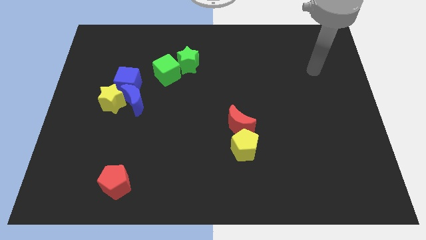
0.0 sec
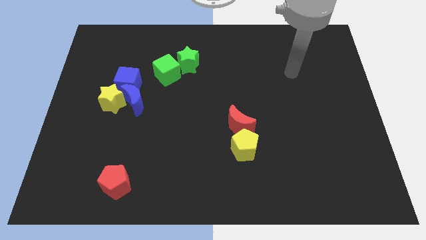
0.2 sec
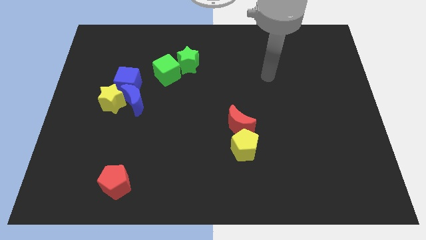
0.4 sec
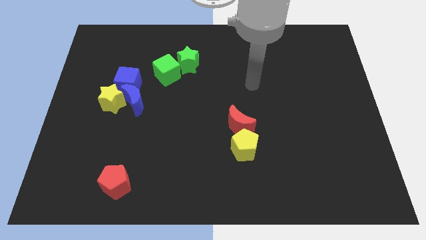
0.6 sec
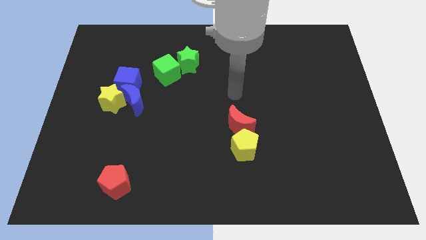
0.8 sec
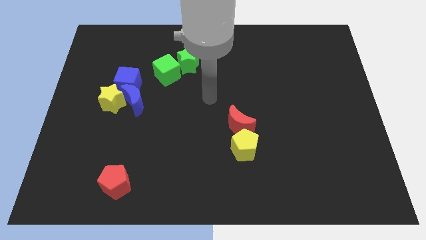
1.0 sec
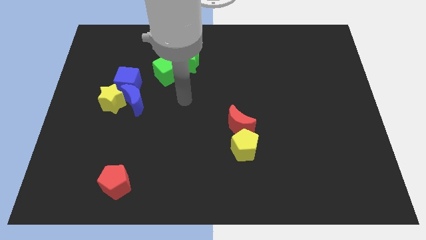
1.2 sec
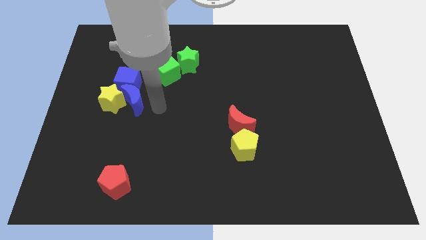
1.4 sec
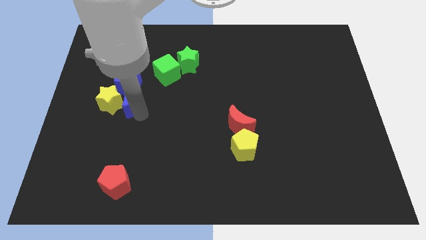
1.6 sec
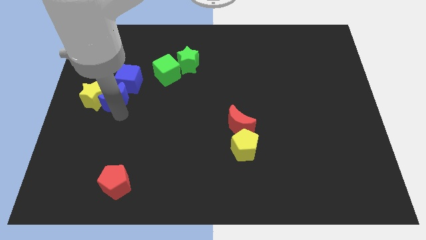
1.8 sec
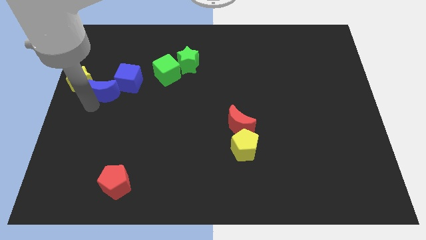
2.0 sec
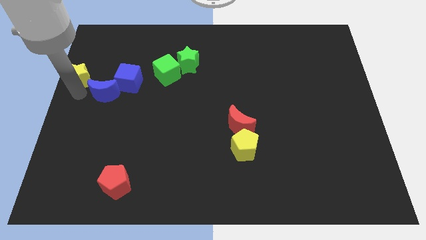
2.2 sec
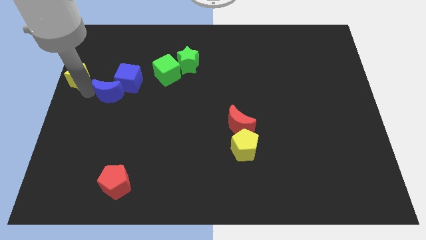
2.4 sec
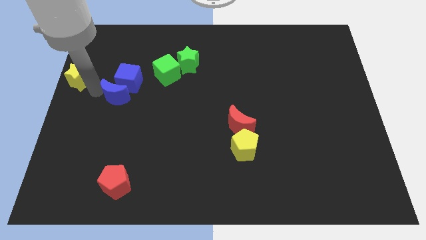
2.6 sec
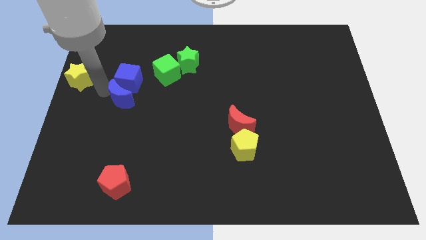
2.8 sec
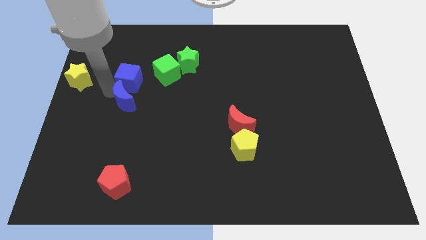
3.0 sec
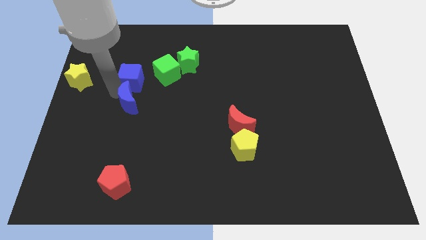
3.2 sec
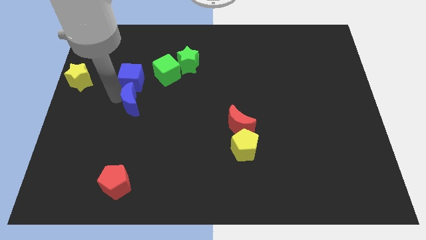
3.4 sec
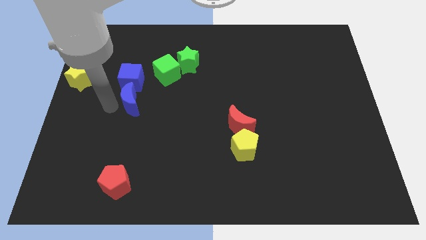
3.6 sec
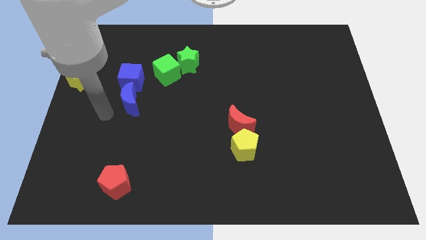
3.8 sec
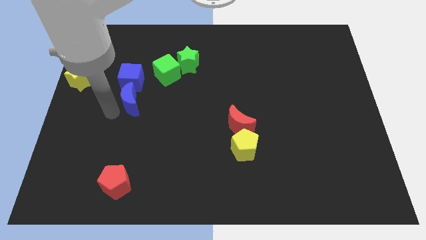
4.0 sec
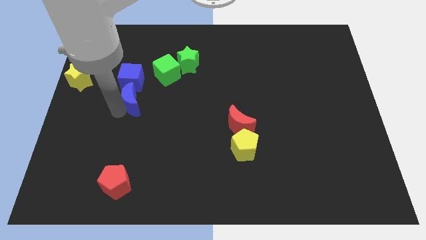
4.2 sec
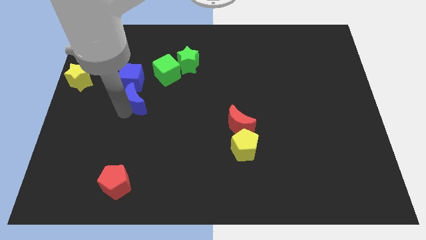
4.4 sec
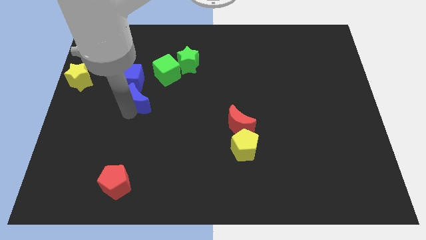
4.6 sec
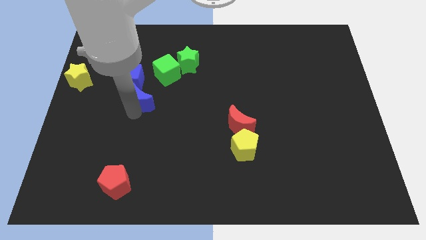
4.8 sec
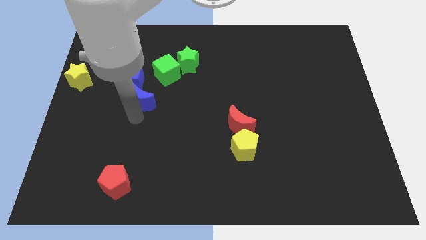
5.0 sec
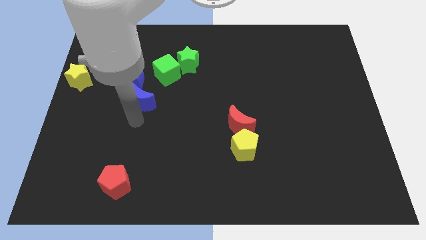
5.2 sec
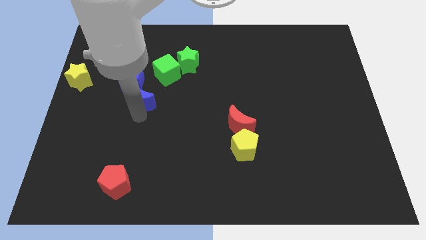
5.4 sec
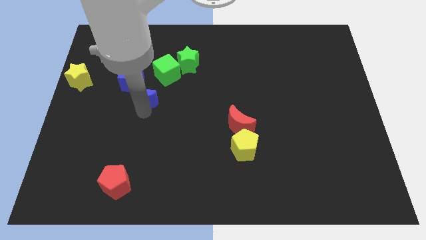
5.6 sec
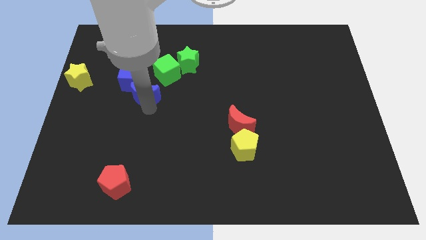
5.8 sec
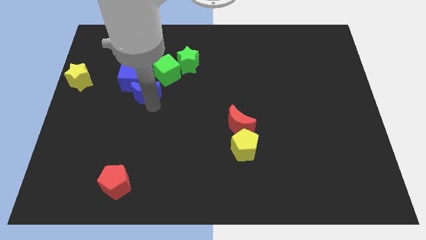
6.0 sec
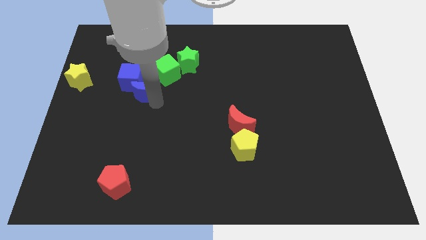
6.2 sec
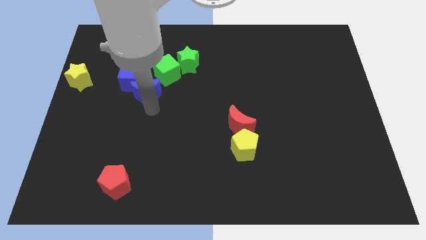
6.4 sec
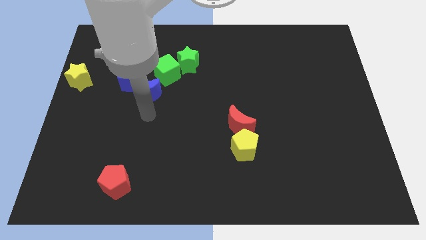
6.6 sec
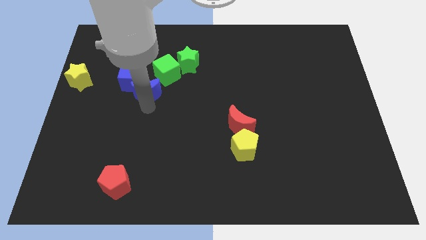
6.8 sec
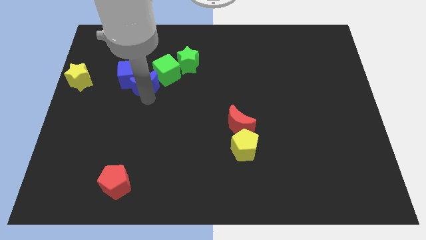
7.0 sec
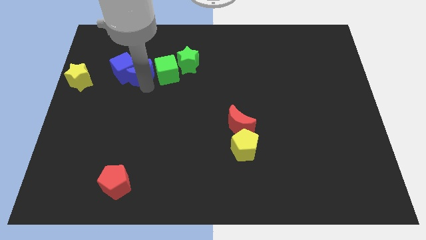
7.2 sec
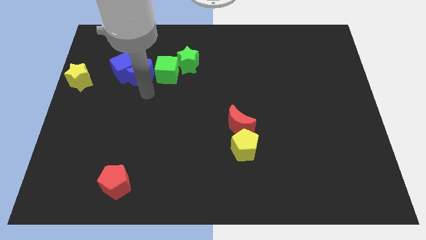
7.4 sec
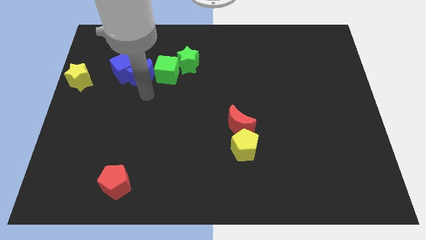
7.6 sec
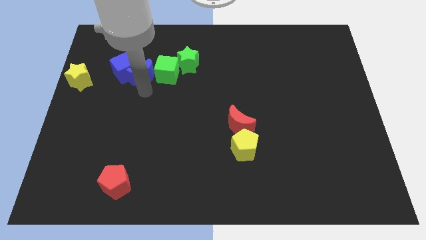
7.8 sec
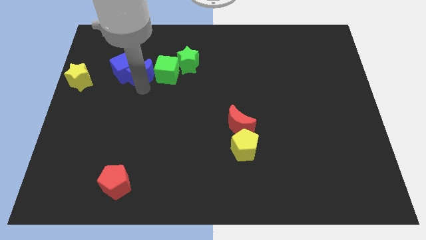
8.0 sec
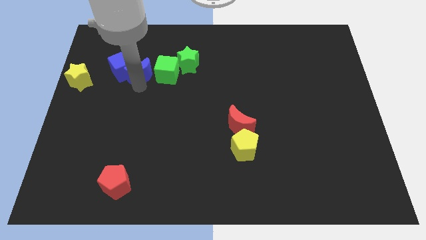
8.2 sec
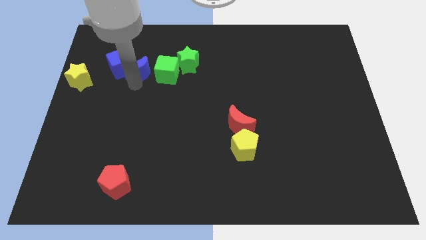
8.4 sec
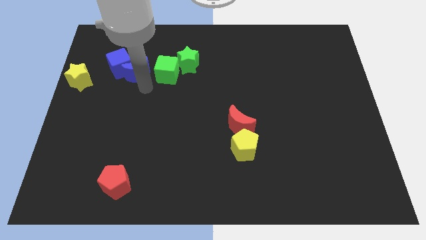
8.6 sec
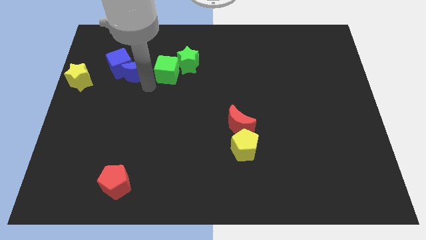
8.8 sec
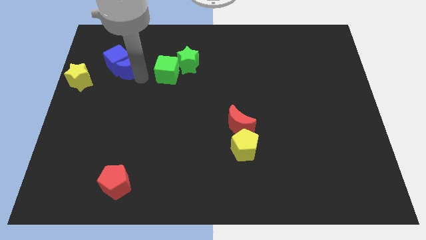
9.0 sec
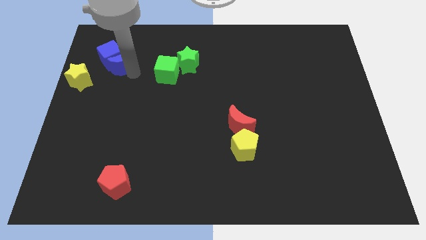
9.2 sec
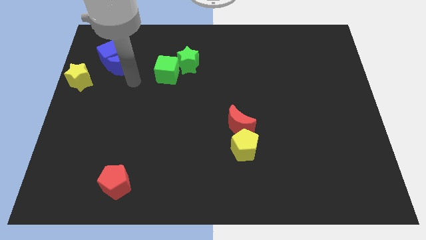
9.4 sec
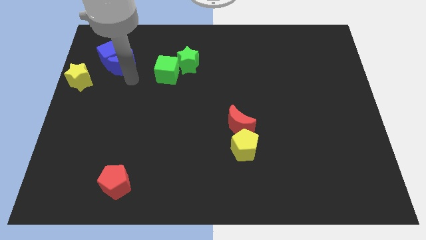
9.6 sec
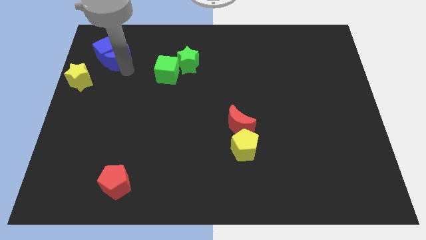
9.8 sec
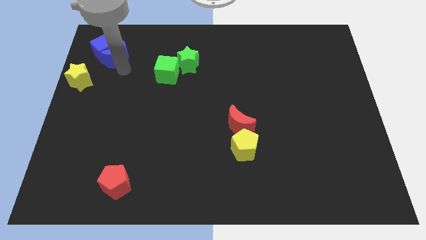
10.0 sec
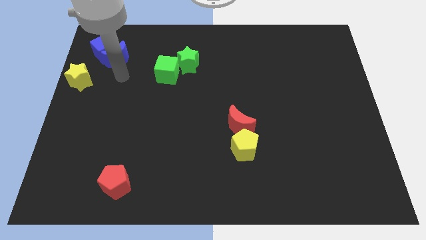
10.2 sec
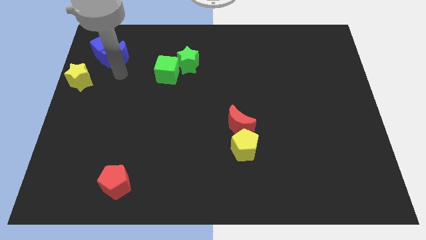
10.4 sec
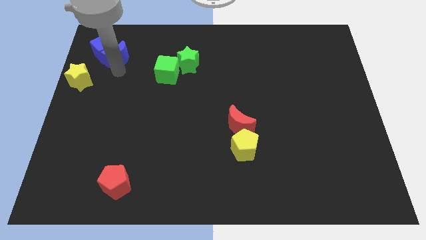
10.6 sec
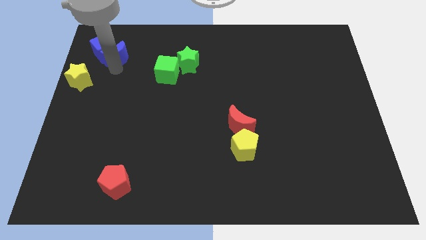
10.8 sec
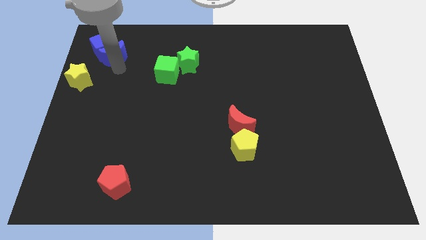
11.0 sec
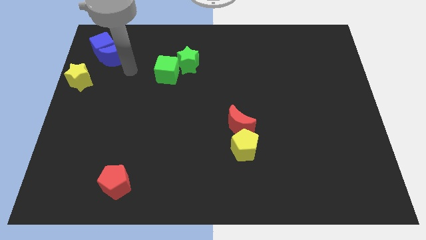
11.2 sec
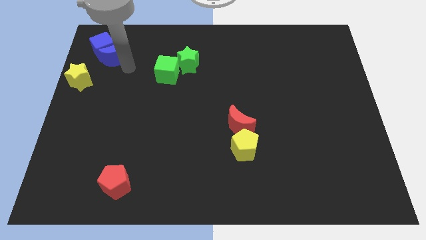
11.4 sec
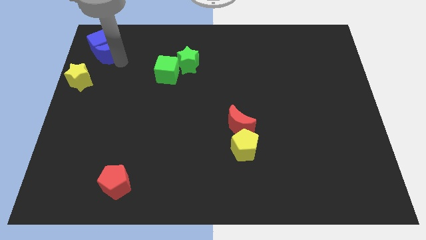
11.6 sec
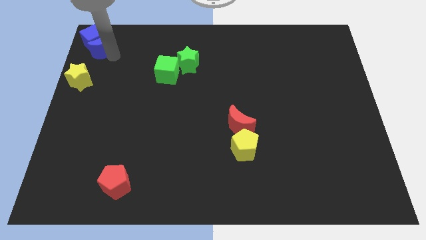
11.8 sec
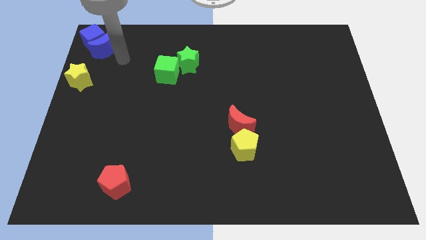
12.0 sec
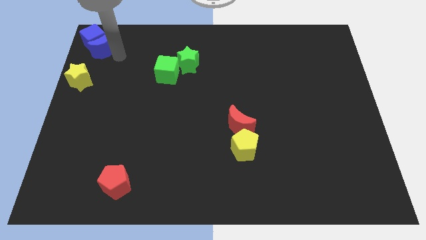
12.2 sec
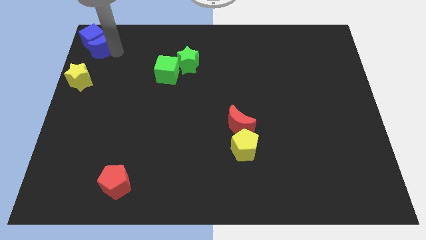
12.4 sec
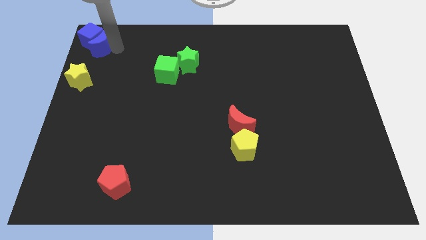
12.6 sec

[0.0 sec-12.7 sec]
slide the blue moon to the top left corner
